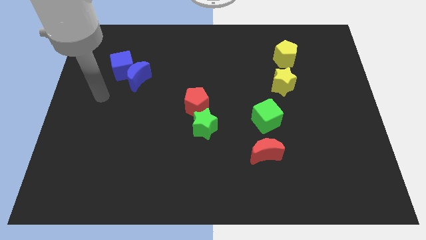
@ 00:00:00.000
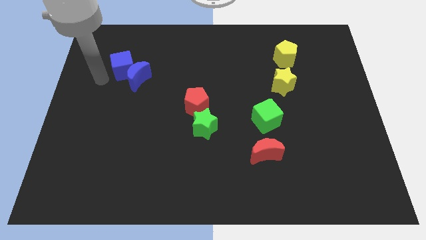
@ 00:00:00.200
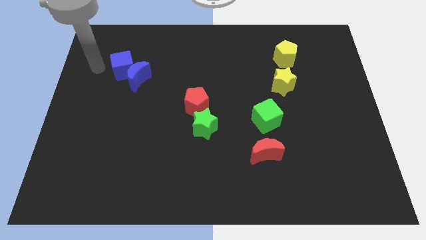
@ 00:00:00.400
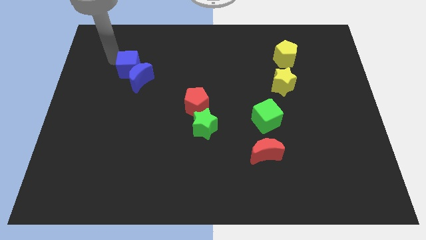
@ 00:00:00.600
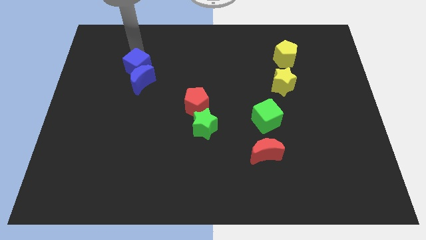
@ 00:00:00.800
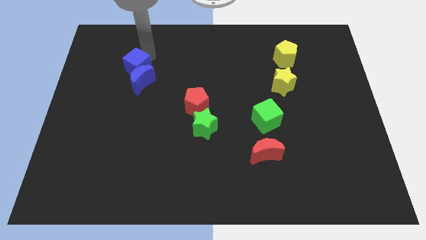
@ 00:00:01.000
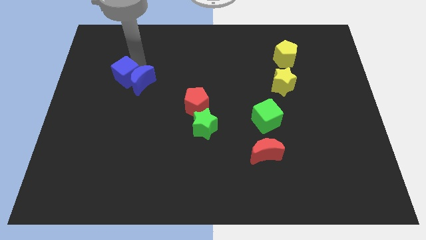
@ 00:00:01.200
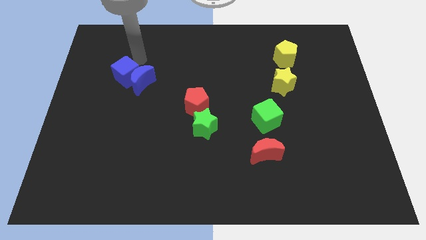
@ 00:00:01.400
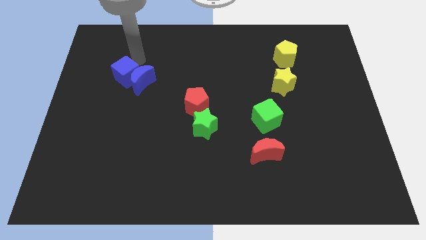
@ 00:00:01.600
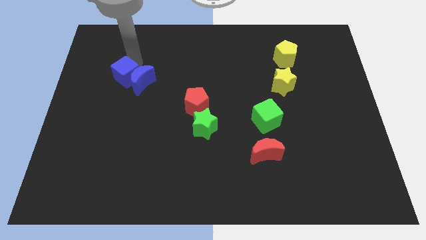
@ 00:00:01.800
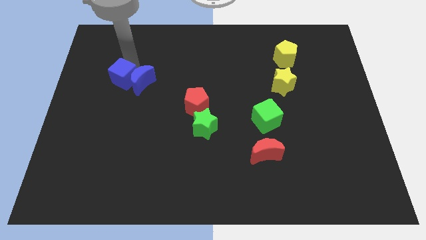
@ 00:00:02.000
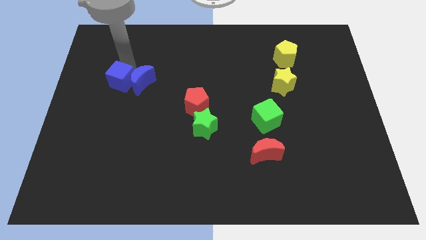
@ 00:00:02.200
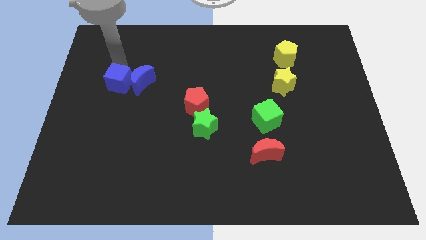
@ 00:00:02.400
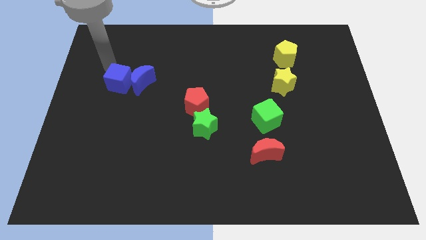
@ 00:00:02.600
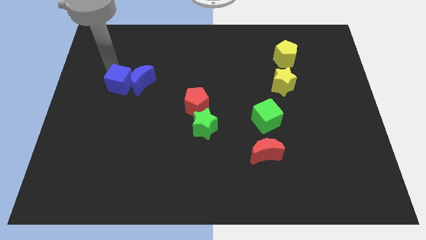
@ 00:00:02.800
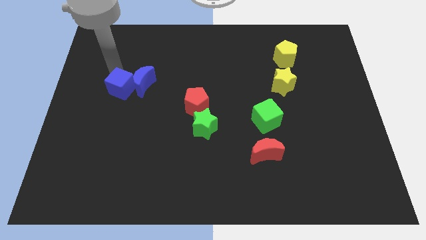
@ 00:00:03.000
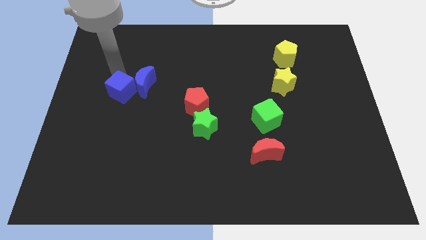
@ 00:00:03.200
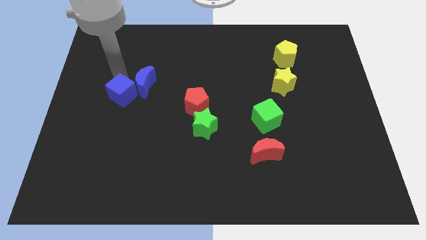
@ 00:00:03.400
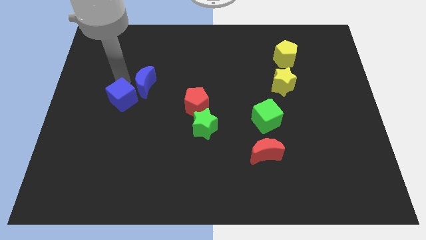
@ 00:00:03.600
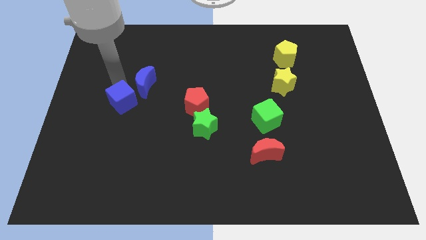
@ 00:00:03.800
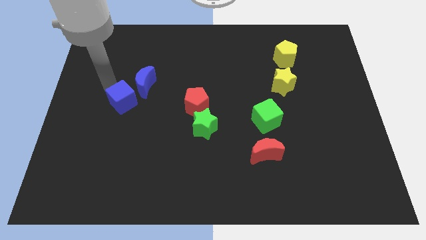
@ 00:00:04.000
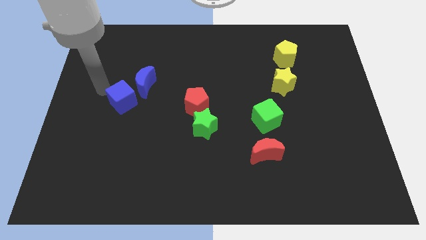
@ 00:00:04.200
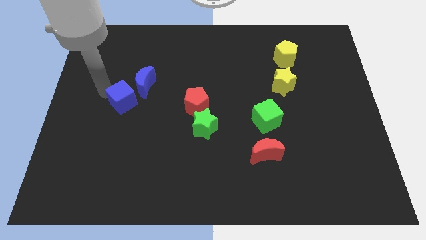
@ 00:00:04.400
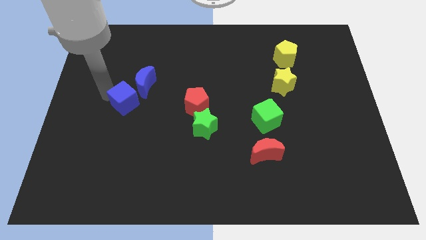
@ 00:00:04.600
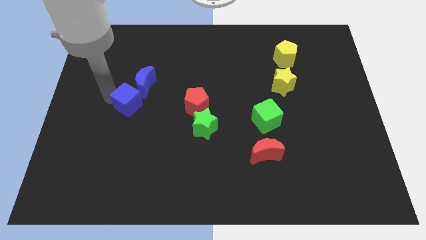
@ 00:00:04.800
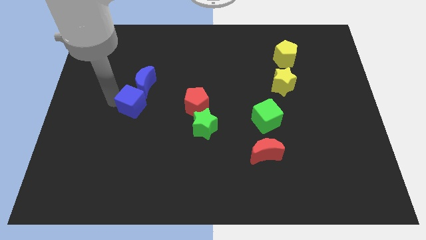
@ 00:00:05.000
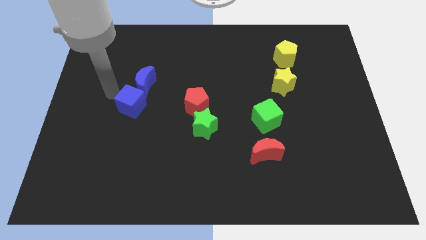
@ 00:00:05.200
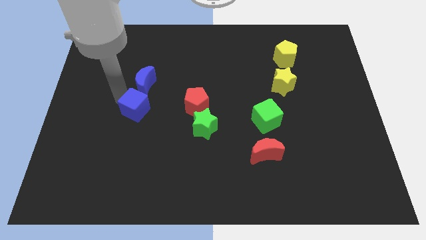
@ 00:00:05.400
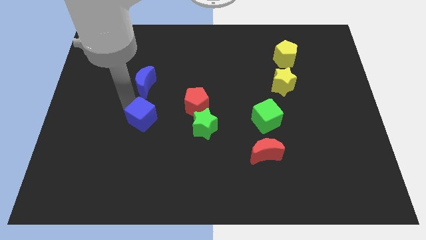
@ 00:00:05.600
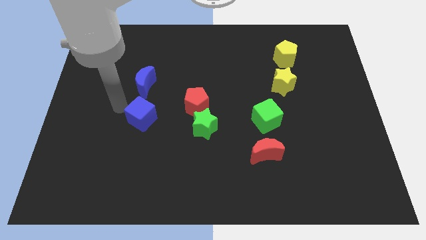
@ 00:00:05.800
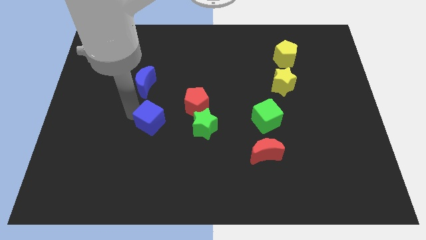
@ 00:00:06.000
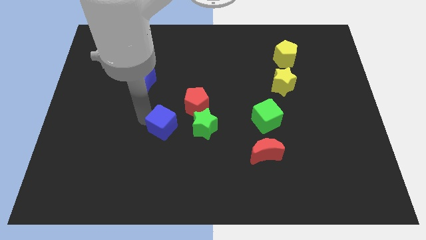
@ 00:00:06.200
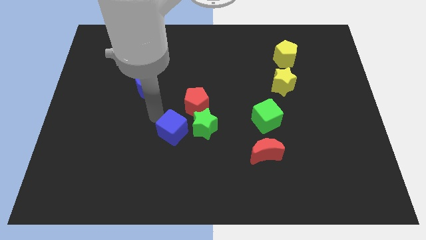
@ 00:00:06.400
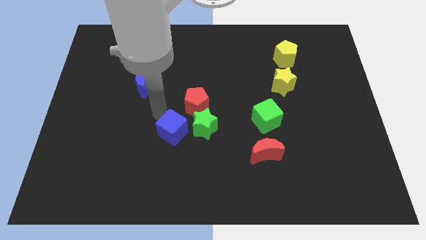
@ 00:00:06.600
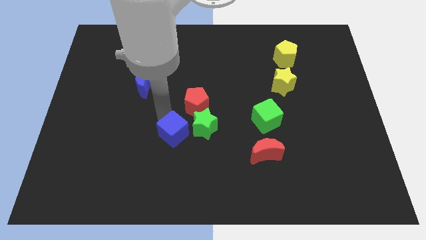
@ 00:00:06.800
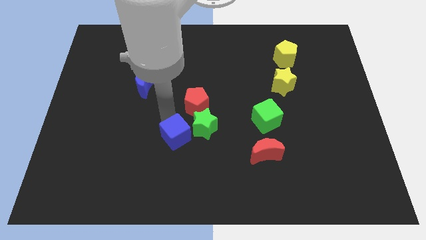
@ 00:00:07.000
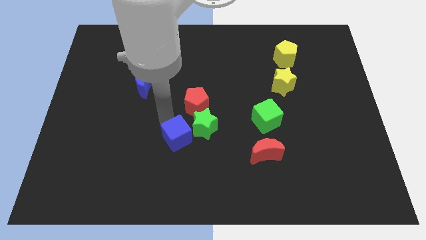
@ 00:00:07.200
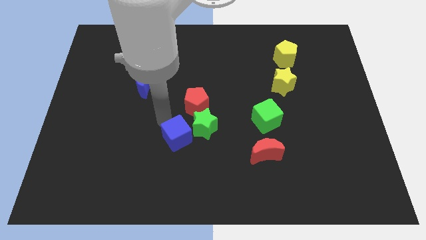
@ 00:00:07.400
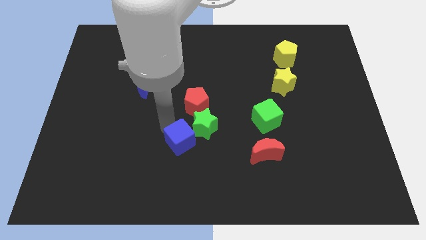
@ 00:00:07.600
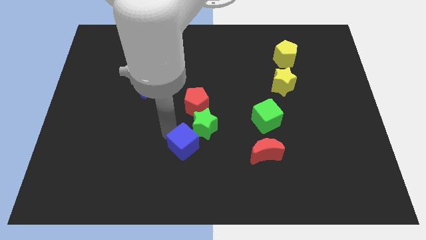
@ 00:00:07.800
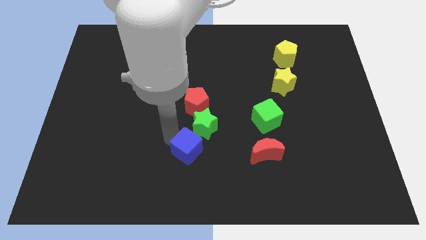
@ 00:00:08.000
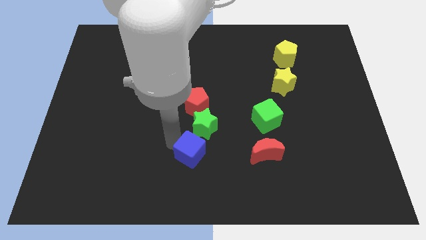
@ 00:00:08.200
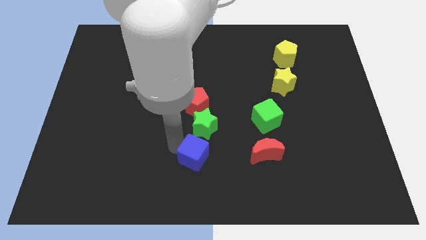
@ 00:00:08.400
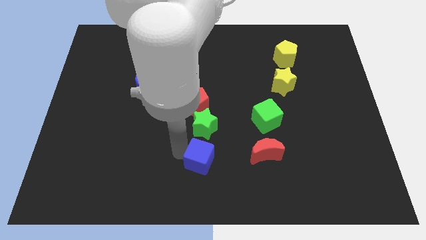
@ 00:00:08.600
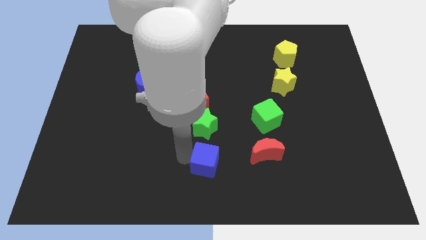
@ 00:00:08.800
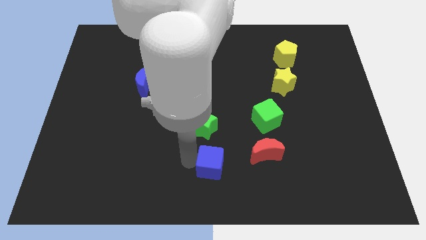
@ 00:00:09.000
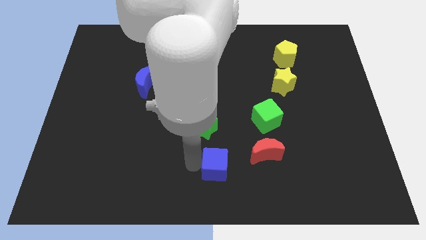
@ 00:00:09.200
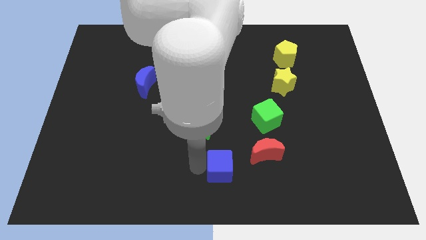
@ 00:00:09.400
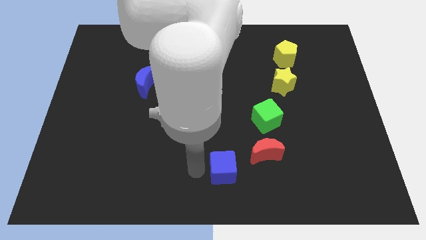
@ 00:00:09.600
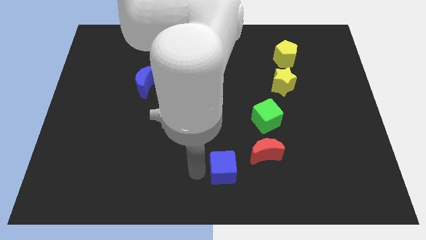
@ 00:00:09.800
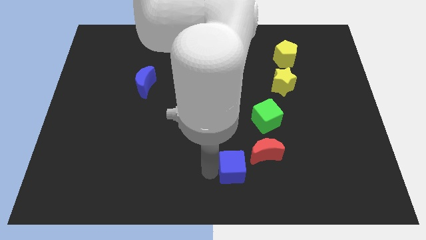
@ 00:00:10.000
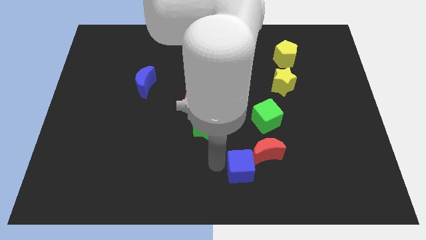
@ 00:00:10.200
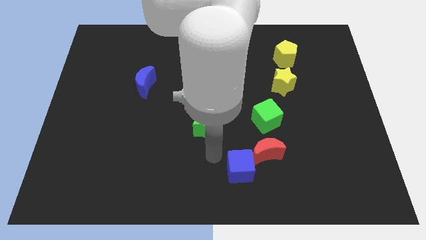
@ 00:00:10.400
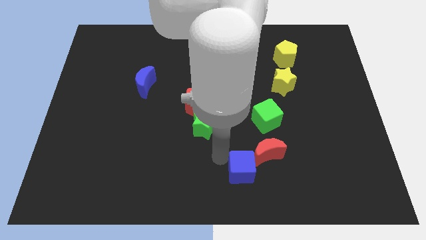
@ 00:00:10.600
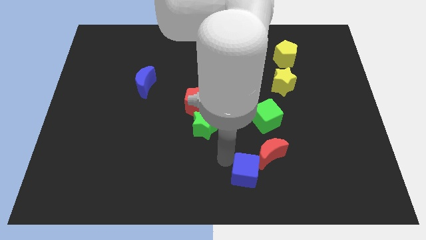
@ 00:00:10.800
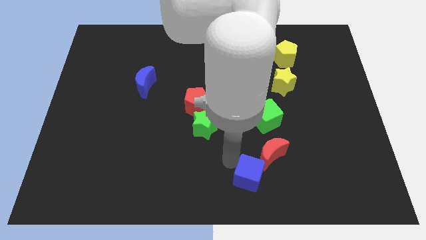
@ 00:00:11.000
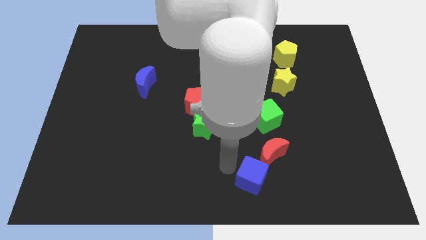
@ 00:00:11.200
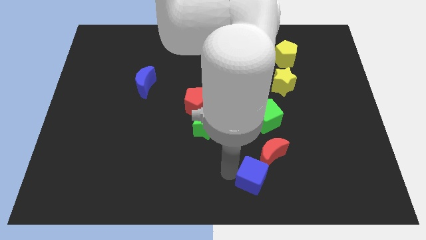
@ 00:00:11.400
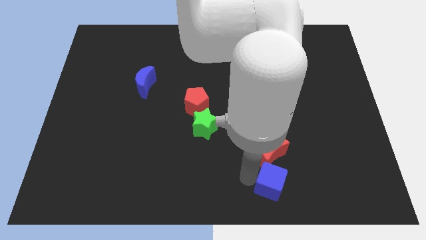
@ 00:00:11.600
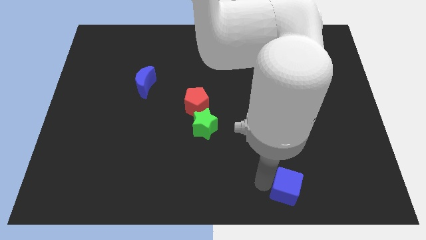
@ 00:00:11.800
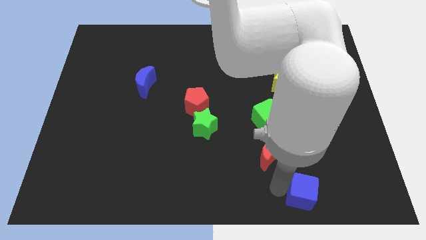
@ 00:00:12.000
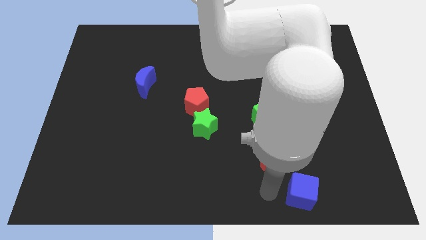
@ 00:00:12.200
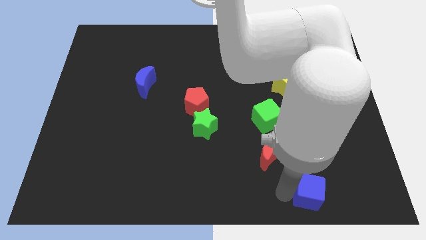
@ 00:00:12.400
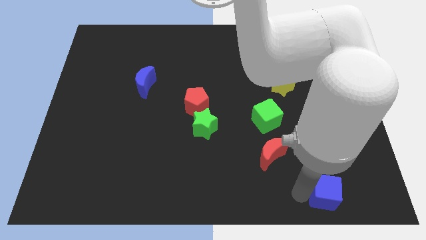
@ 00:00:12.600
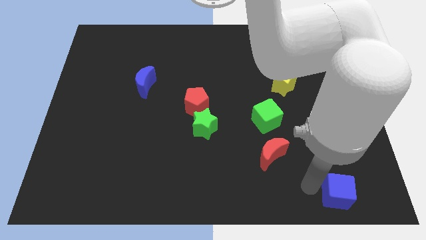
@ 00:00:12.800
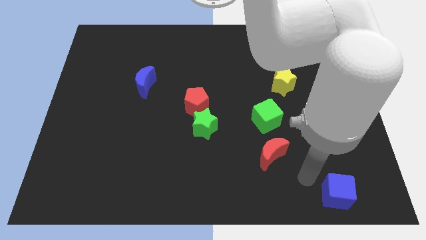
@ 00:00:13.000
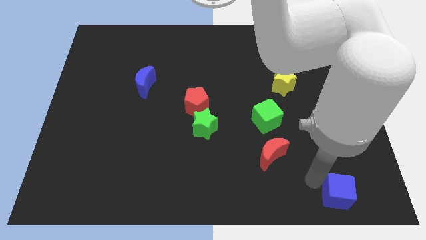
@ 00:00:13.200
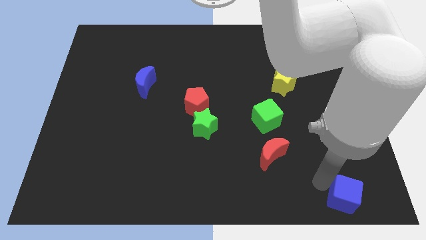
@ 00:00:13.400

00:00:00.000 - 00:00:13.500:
move the blue cube to the bottom right of the board
